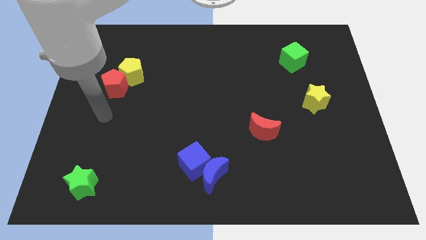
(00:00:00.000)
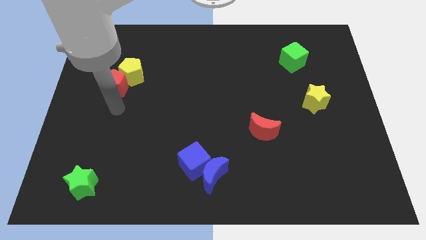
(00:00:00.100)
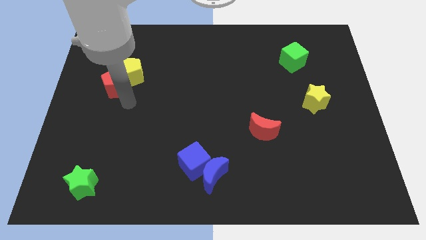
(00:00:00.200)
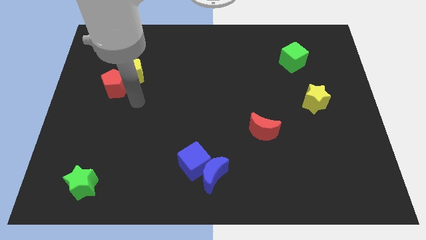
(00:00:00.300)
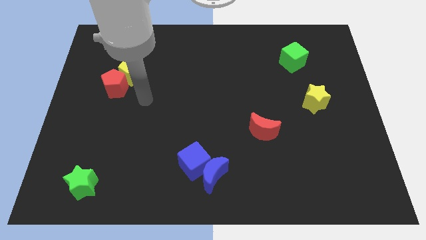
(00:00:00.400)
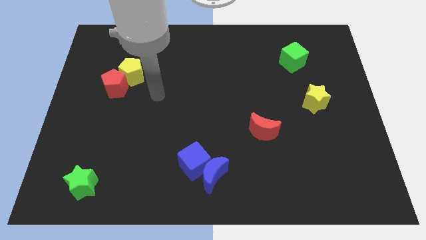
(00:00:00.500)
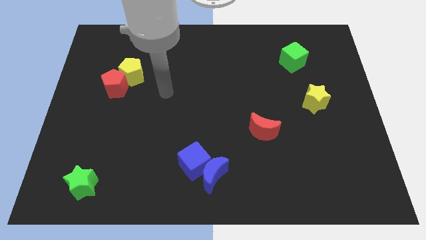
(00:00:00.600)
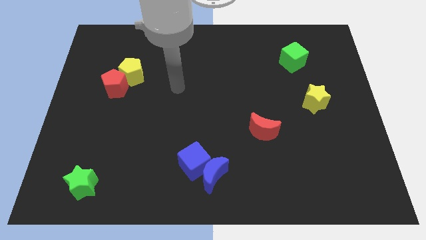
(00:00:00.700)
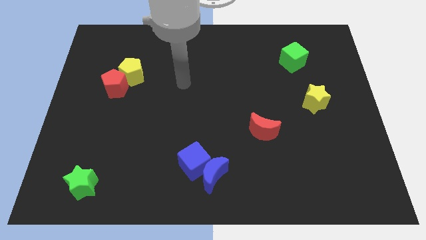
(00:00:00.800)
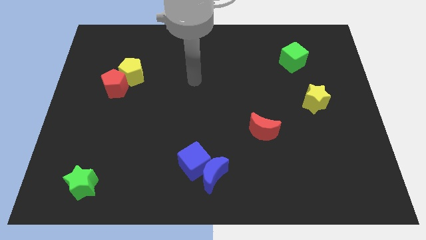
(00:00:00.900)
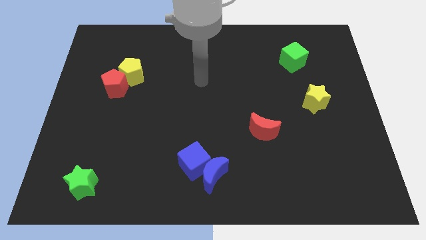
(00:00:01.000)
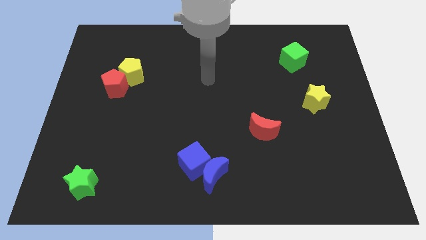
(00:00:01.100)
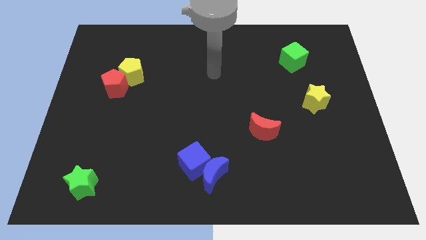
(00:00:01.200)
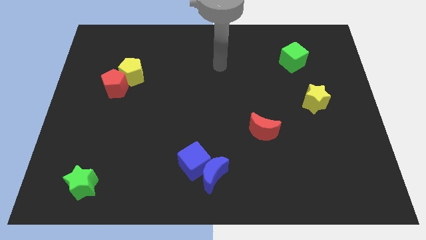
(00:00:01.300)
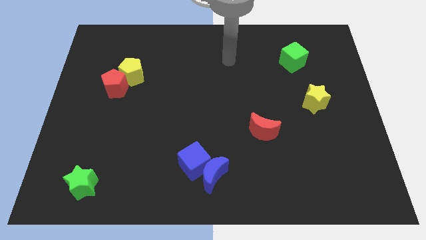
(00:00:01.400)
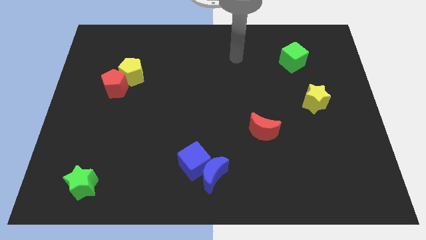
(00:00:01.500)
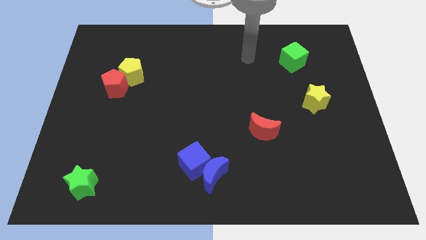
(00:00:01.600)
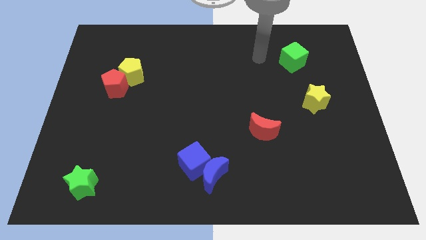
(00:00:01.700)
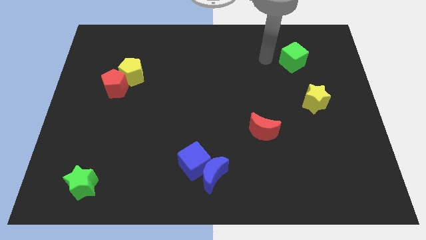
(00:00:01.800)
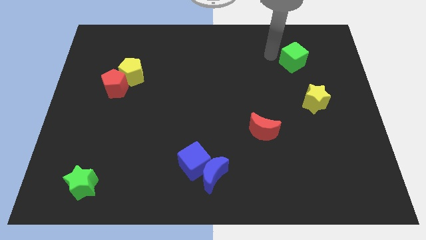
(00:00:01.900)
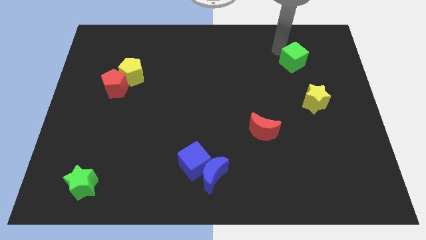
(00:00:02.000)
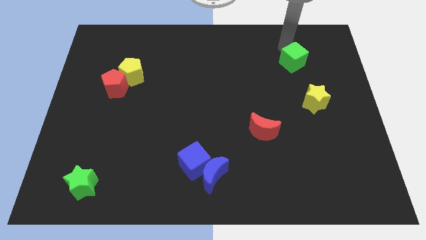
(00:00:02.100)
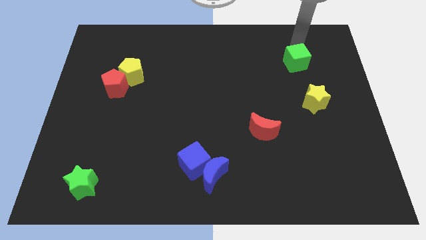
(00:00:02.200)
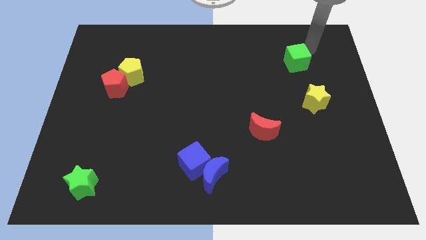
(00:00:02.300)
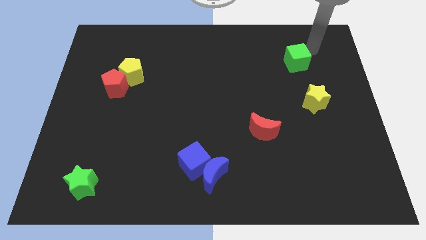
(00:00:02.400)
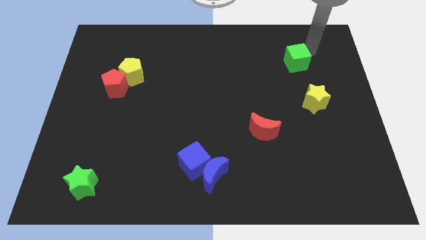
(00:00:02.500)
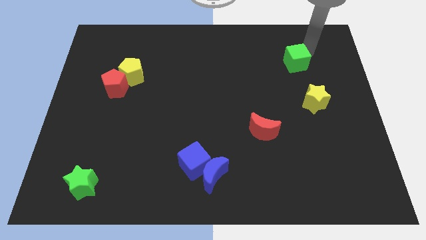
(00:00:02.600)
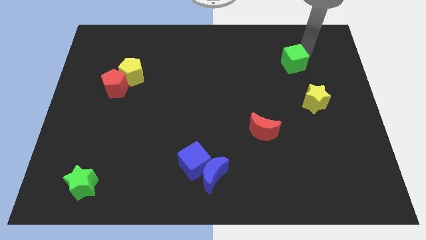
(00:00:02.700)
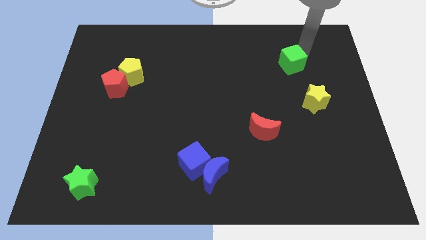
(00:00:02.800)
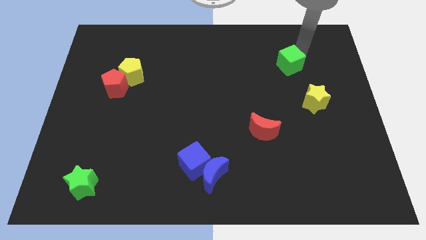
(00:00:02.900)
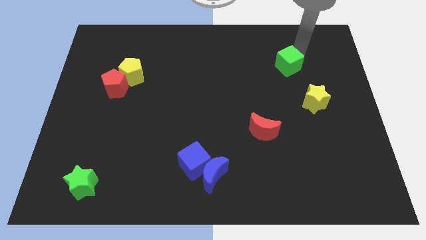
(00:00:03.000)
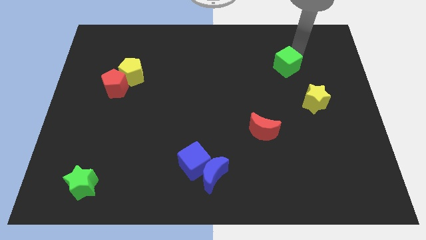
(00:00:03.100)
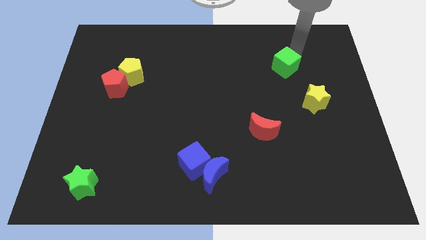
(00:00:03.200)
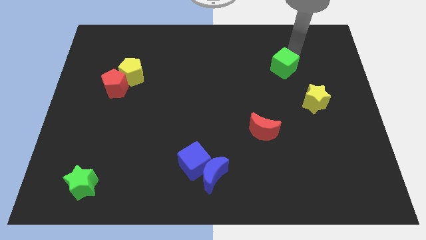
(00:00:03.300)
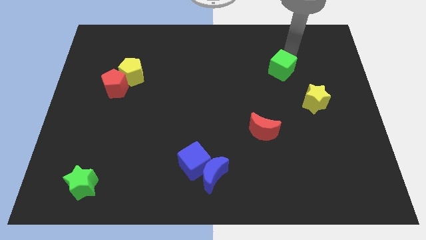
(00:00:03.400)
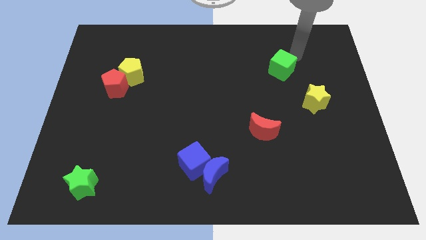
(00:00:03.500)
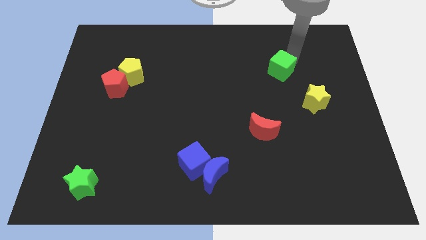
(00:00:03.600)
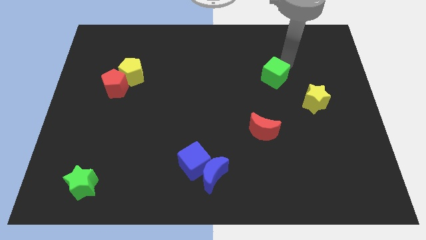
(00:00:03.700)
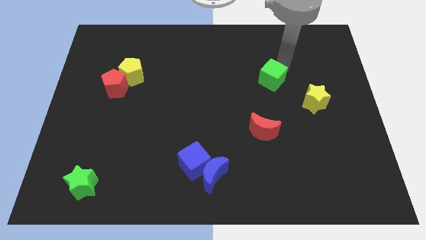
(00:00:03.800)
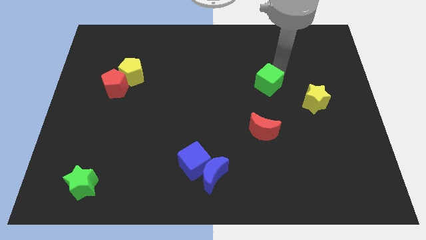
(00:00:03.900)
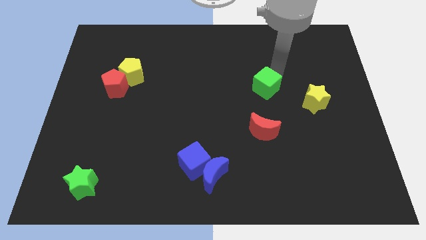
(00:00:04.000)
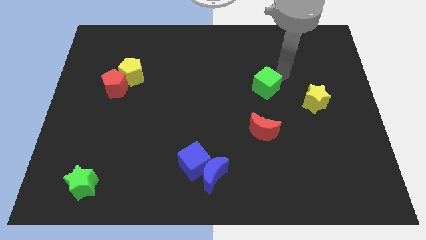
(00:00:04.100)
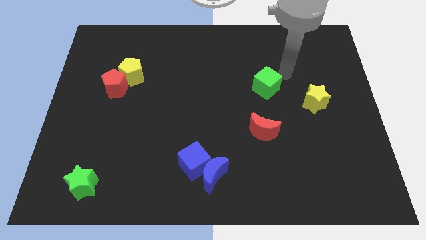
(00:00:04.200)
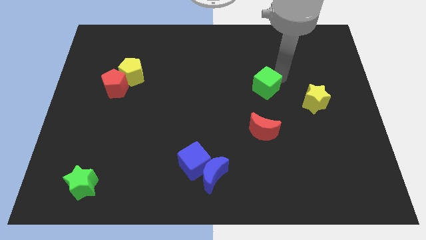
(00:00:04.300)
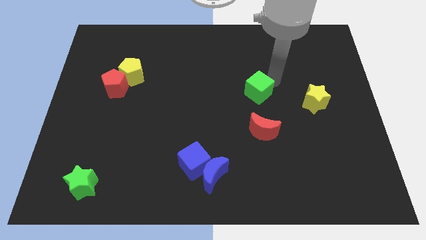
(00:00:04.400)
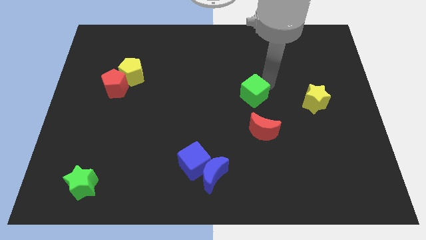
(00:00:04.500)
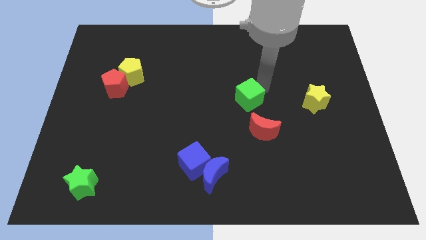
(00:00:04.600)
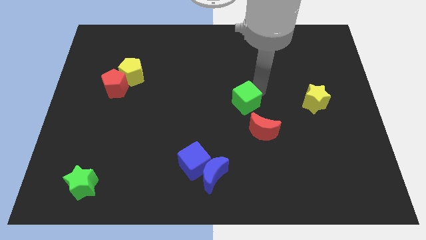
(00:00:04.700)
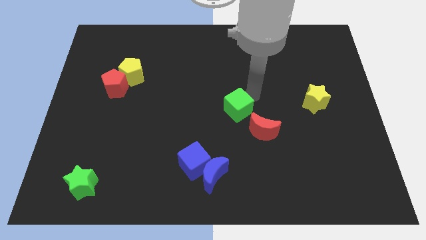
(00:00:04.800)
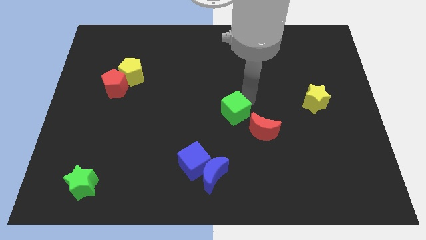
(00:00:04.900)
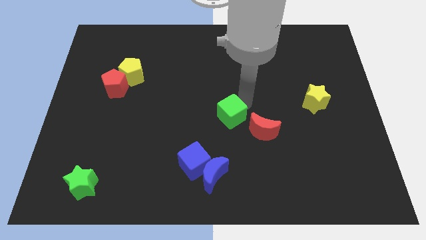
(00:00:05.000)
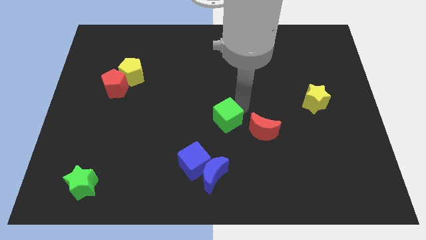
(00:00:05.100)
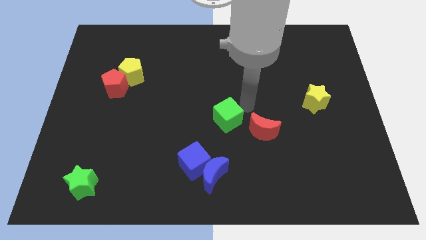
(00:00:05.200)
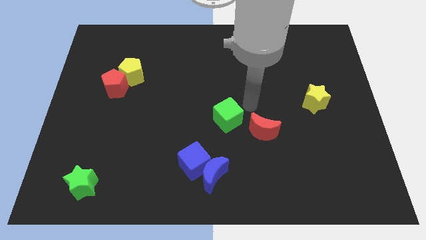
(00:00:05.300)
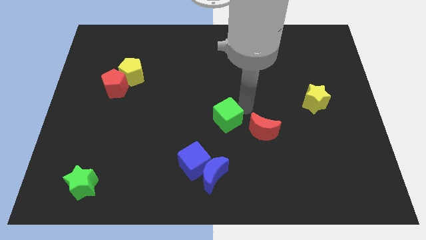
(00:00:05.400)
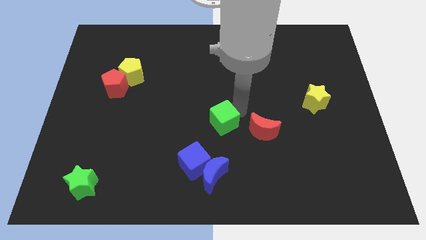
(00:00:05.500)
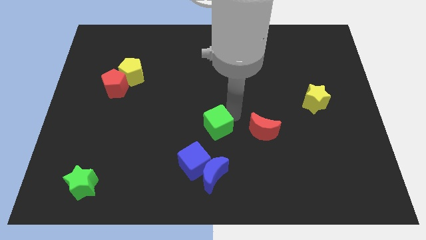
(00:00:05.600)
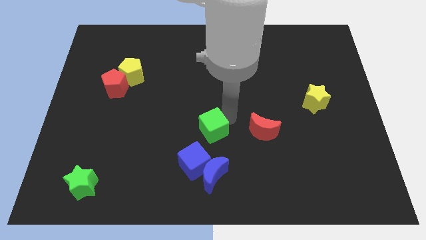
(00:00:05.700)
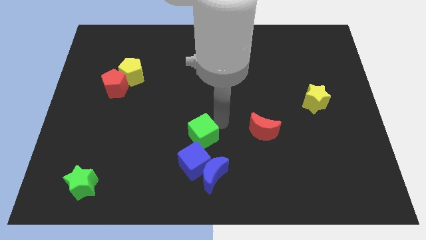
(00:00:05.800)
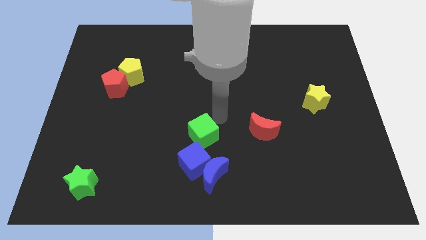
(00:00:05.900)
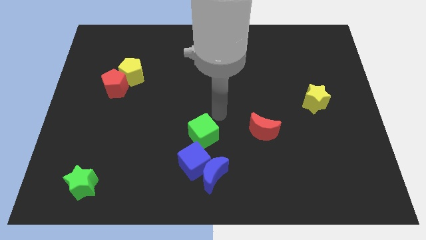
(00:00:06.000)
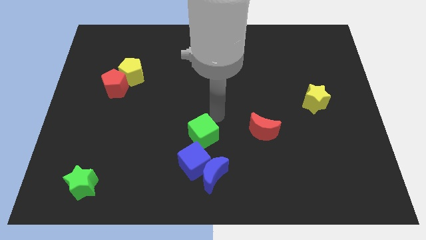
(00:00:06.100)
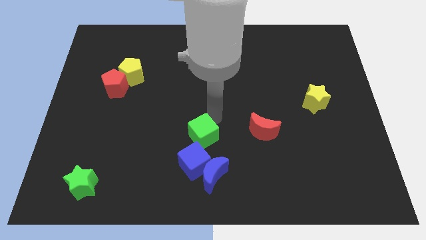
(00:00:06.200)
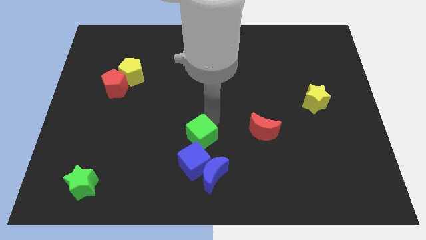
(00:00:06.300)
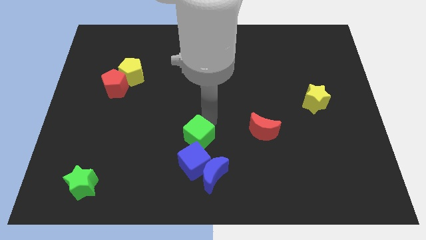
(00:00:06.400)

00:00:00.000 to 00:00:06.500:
put the green cube diagonally up and to the left of the blue moon
